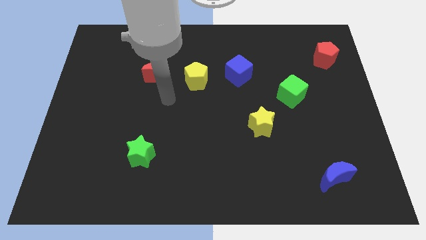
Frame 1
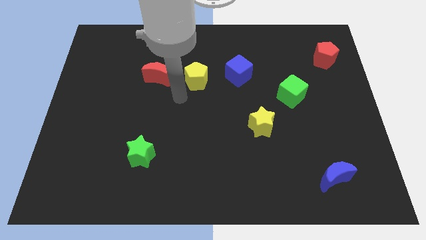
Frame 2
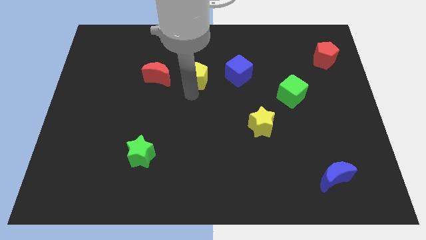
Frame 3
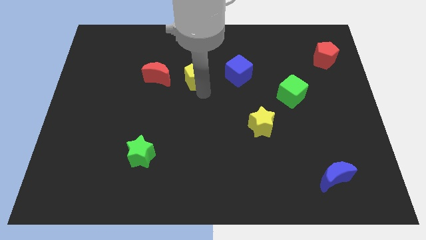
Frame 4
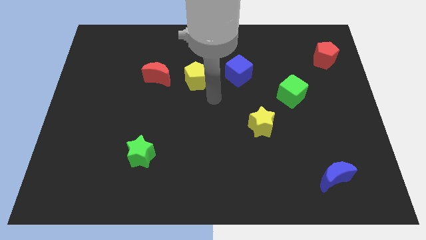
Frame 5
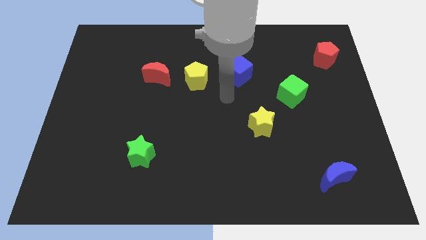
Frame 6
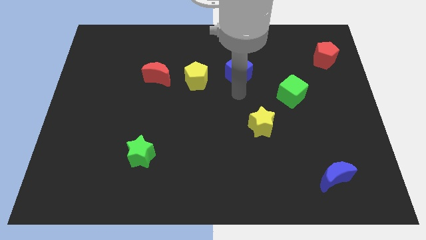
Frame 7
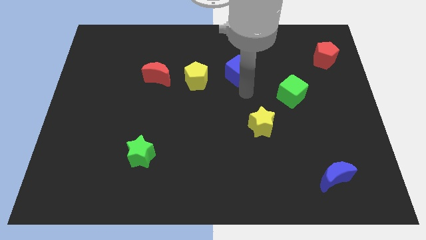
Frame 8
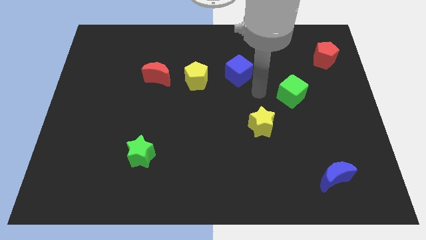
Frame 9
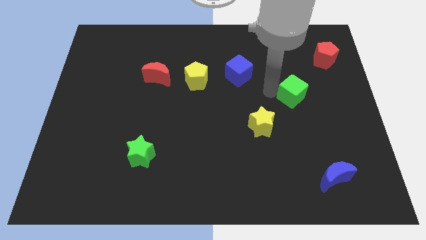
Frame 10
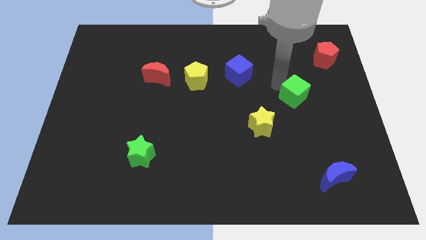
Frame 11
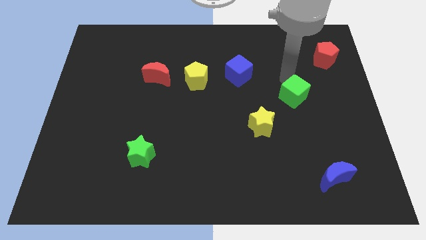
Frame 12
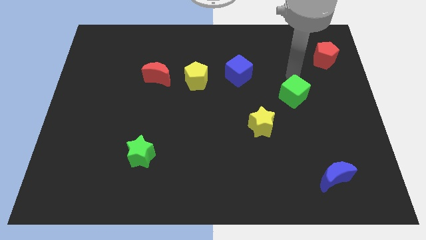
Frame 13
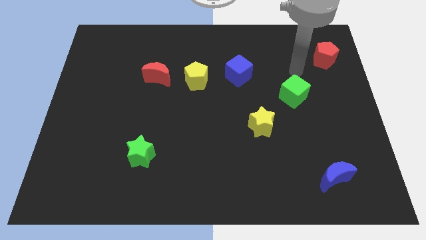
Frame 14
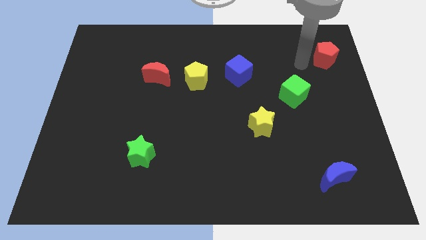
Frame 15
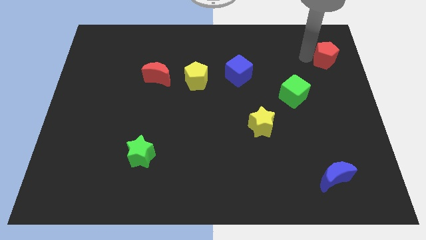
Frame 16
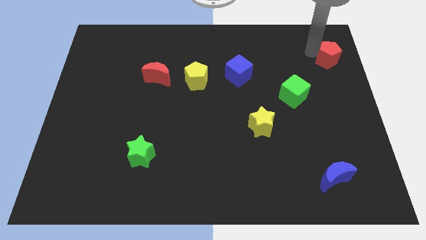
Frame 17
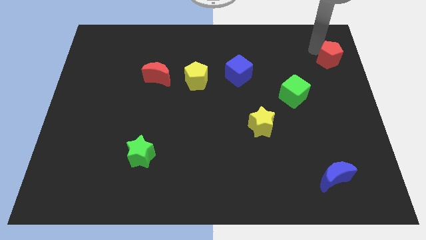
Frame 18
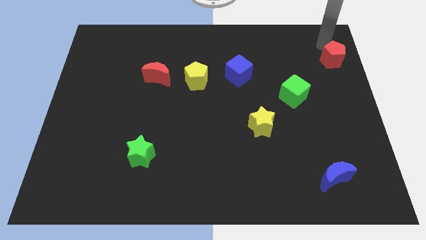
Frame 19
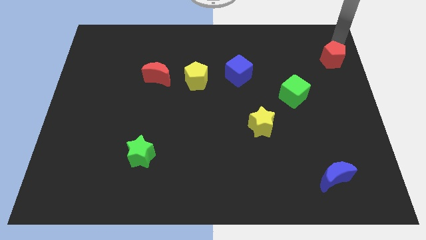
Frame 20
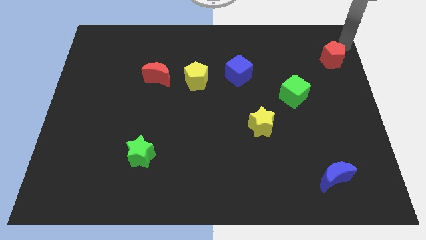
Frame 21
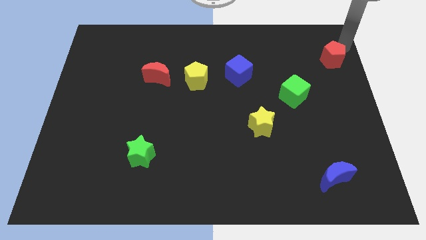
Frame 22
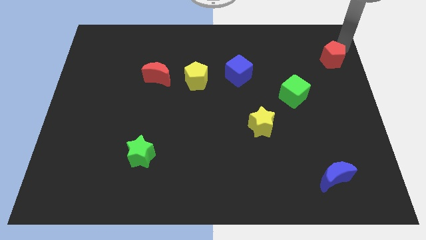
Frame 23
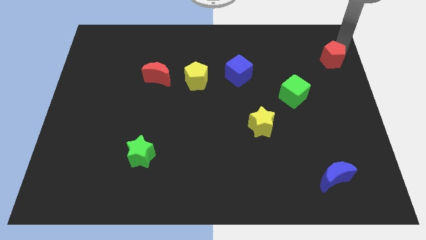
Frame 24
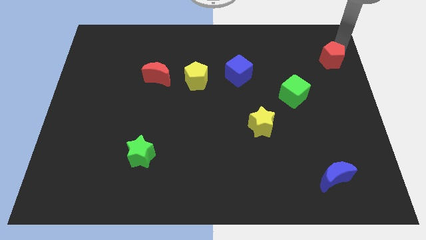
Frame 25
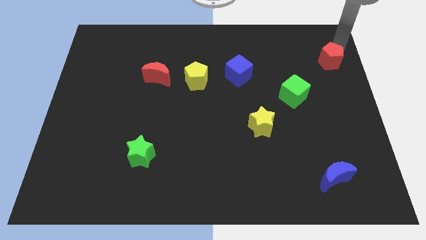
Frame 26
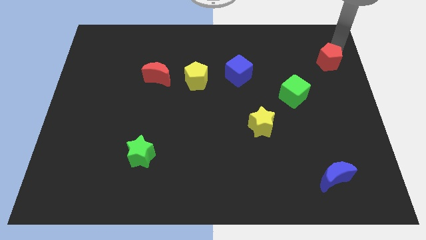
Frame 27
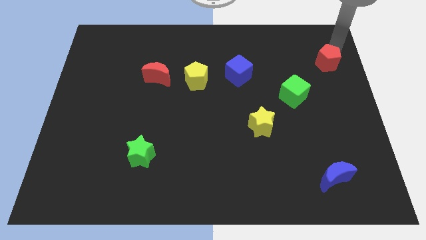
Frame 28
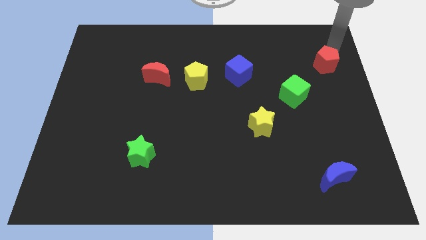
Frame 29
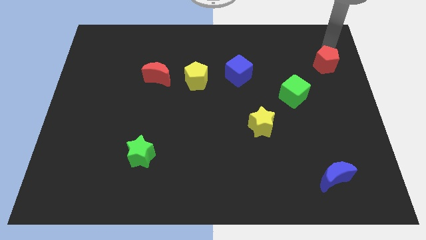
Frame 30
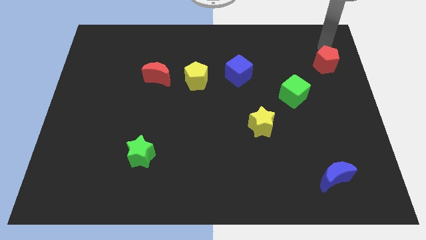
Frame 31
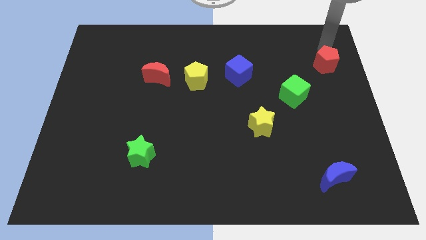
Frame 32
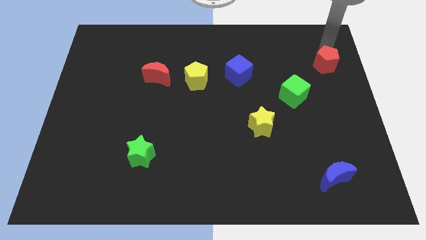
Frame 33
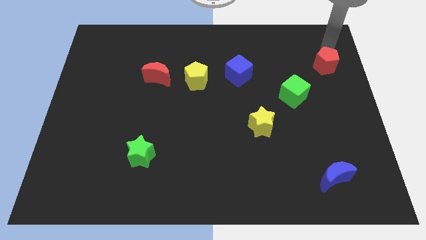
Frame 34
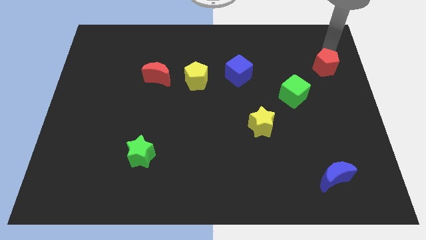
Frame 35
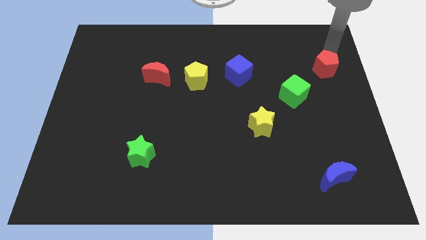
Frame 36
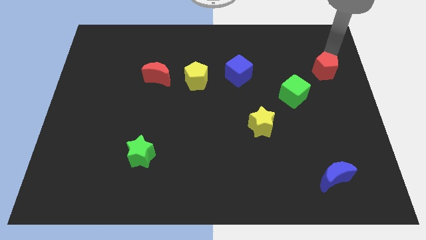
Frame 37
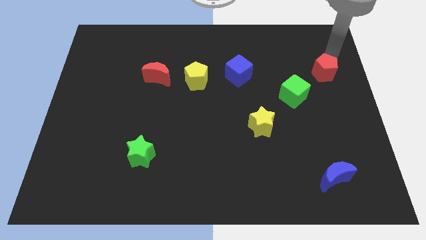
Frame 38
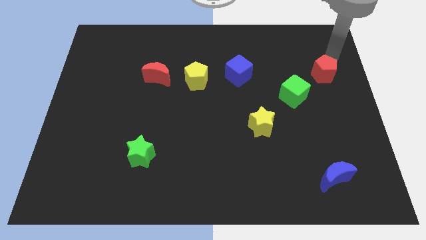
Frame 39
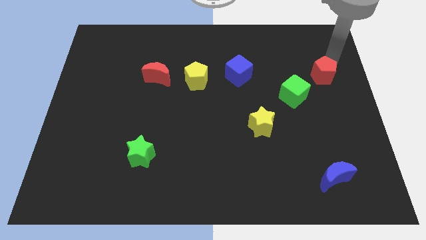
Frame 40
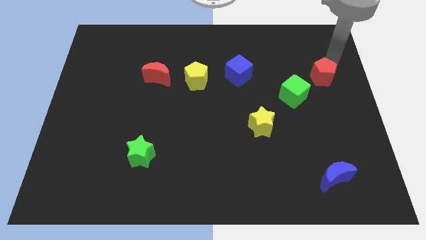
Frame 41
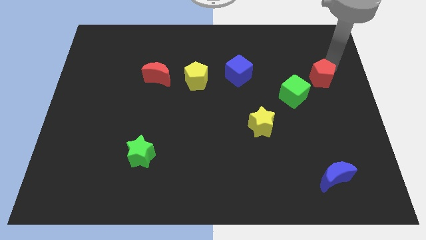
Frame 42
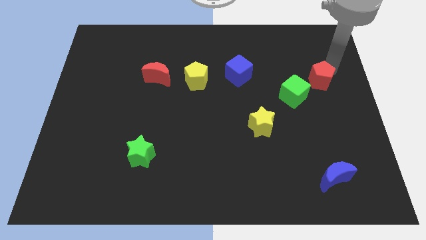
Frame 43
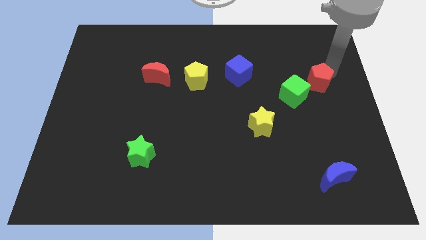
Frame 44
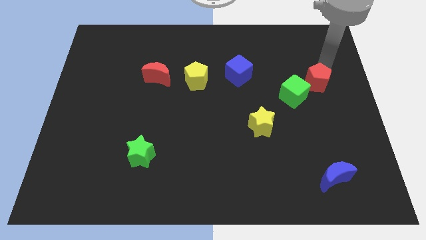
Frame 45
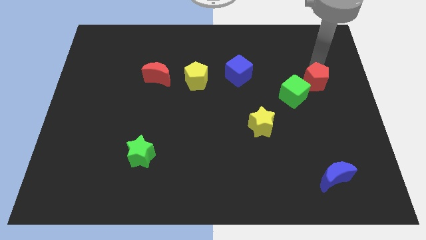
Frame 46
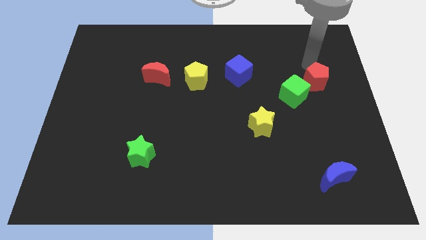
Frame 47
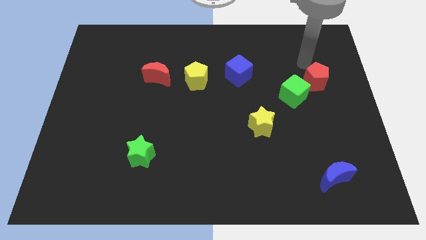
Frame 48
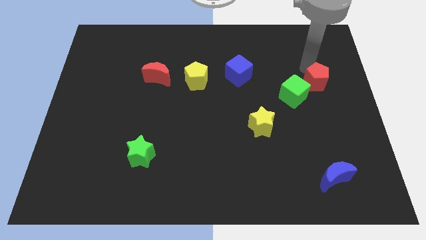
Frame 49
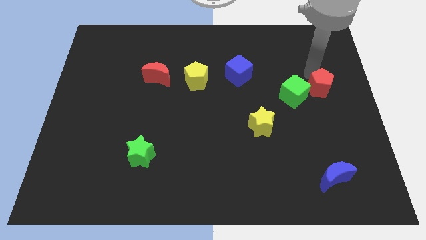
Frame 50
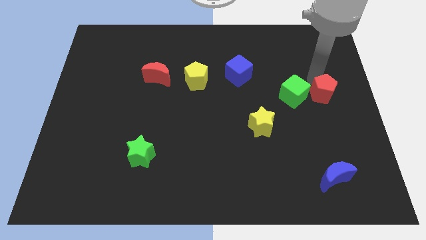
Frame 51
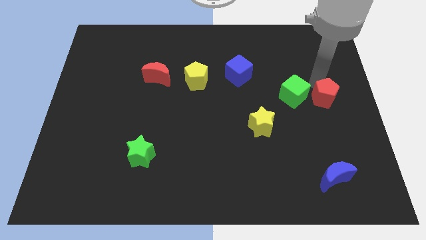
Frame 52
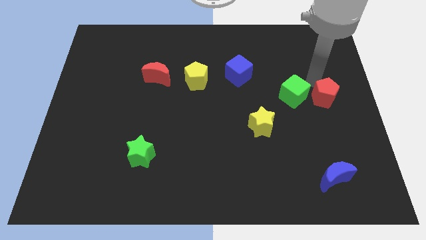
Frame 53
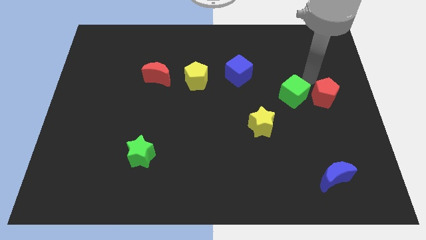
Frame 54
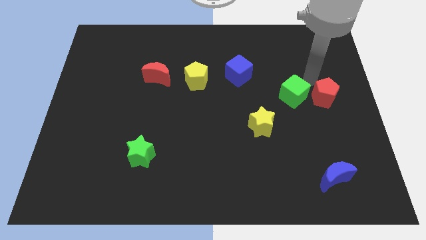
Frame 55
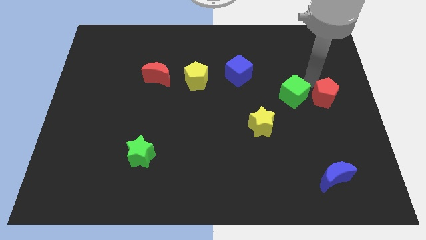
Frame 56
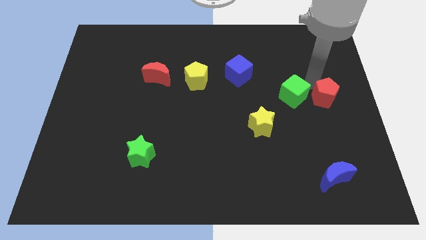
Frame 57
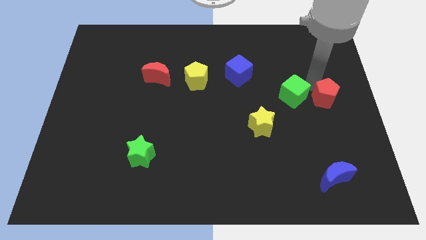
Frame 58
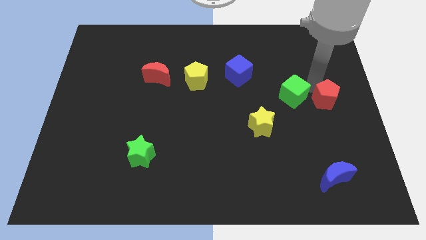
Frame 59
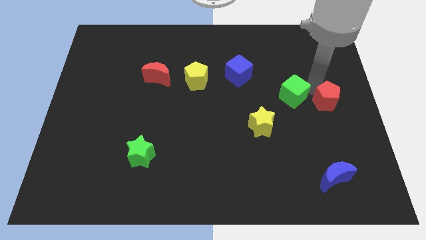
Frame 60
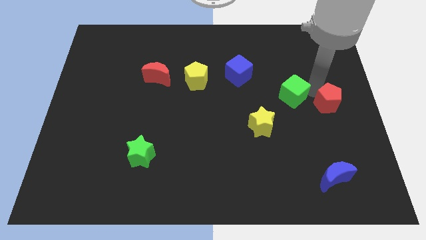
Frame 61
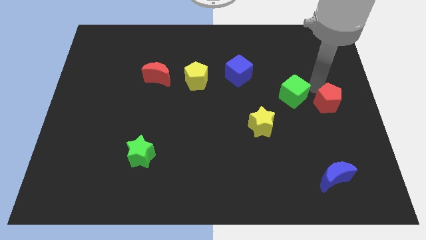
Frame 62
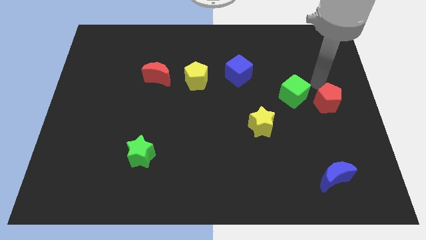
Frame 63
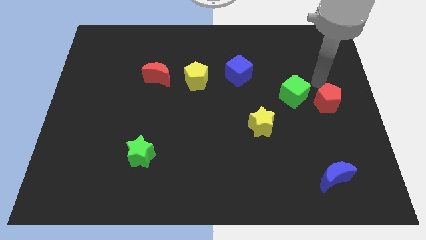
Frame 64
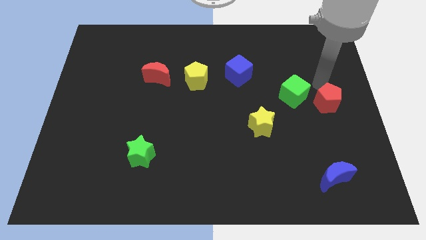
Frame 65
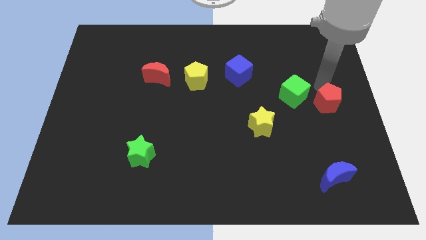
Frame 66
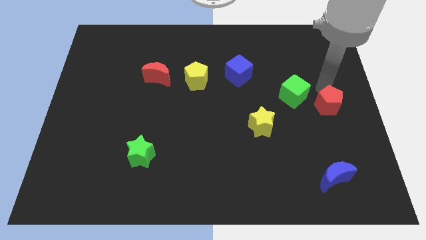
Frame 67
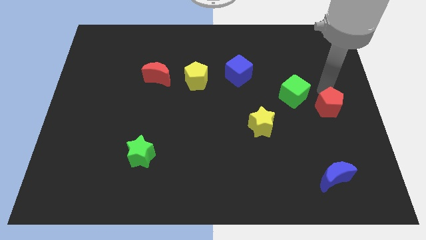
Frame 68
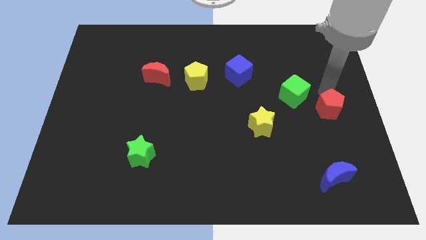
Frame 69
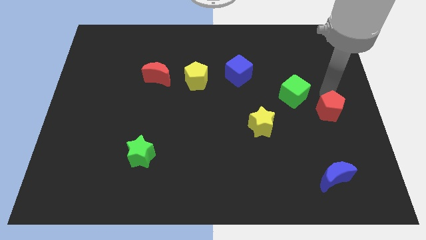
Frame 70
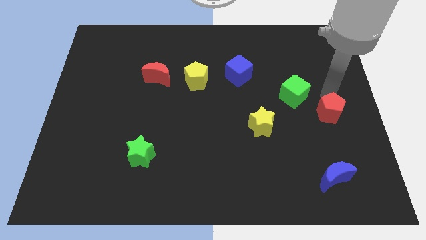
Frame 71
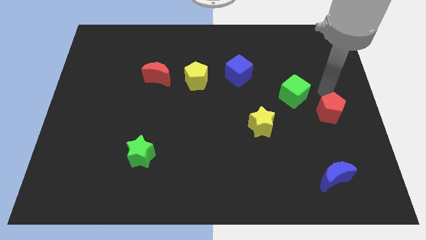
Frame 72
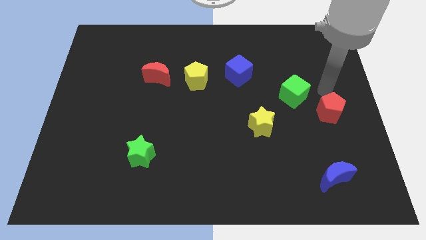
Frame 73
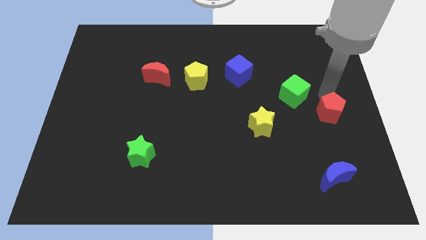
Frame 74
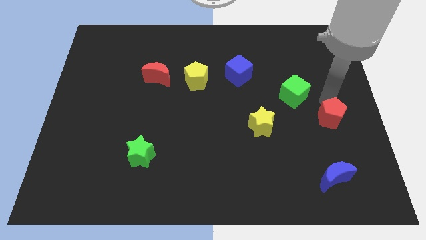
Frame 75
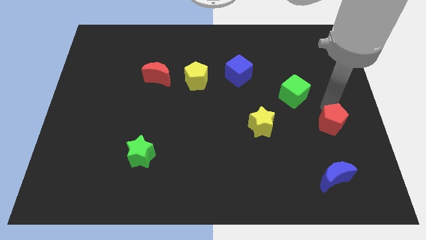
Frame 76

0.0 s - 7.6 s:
slide the red pentagon down
